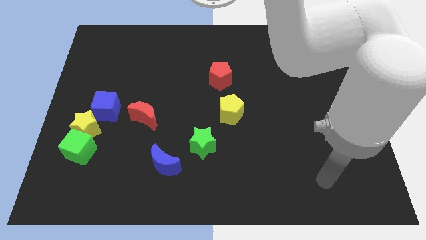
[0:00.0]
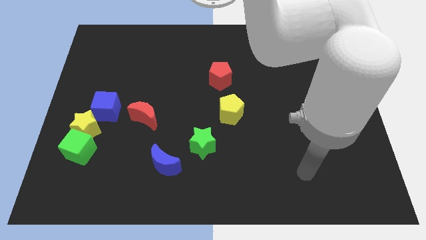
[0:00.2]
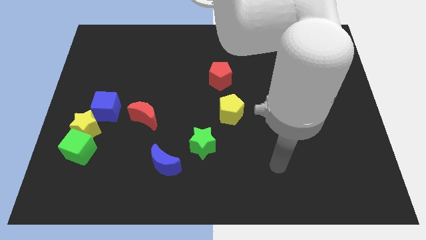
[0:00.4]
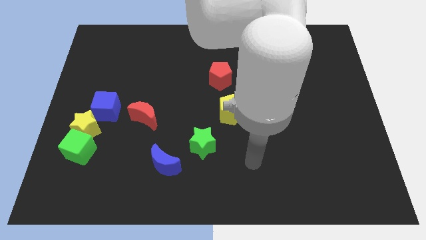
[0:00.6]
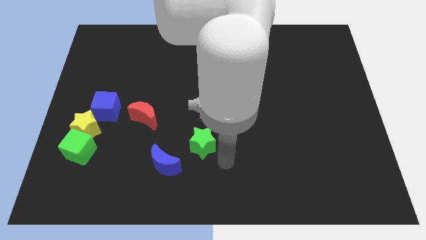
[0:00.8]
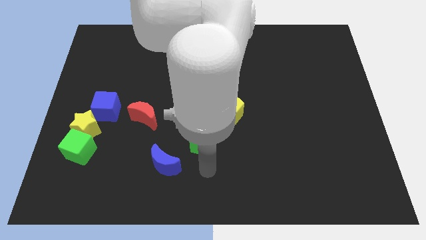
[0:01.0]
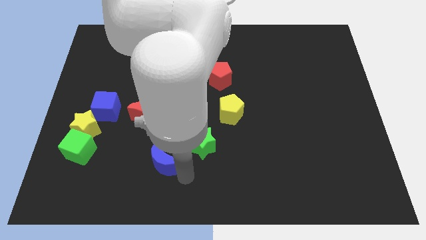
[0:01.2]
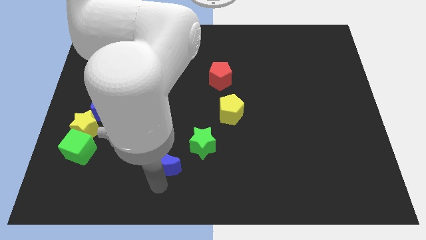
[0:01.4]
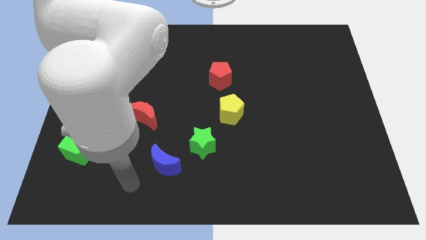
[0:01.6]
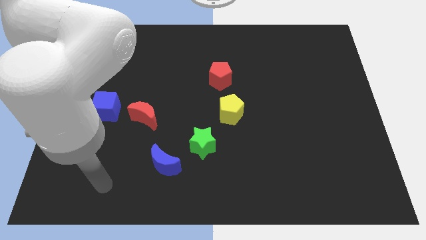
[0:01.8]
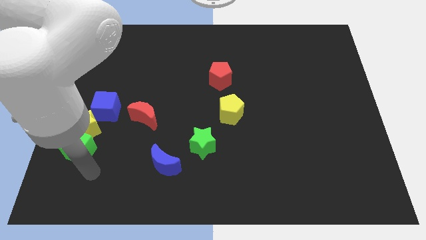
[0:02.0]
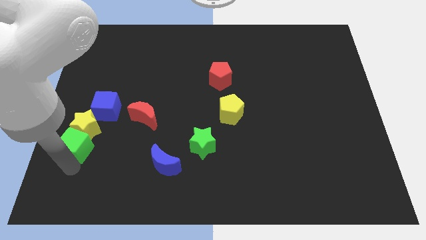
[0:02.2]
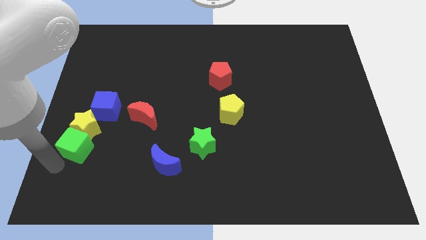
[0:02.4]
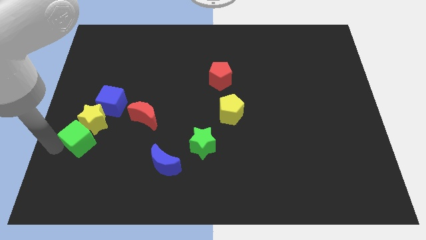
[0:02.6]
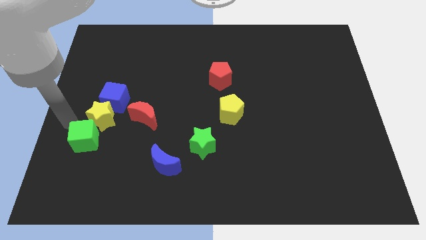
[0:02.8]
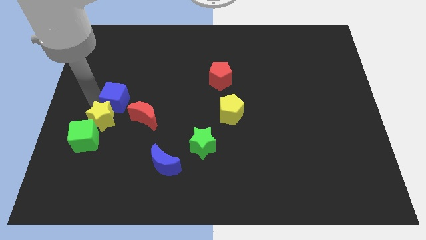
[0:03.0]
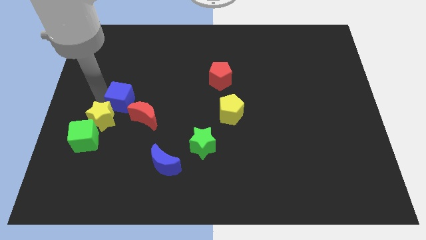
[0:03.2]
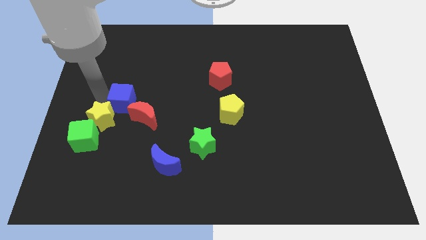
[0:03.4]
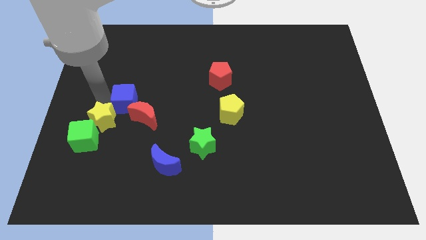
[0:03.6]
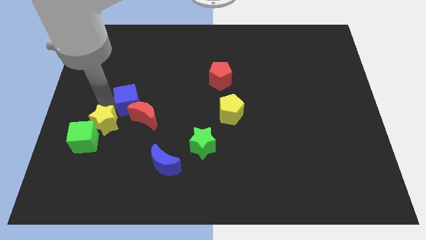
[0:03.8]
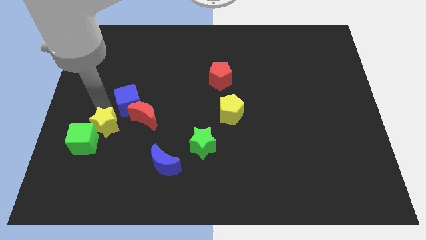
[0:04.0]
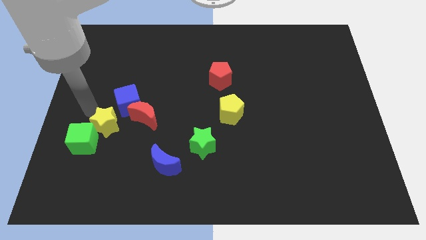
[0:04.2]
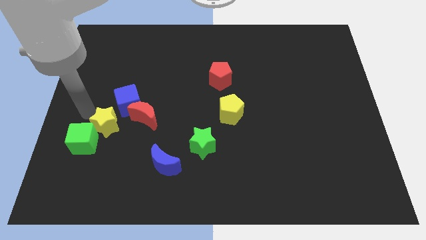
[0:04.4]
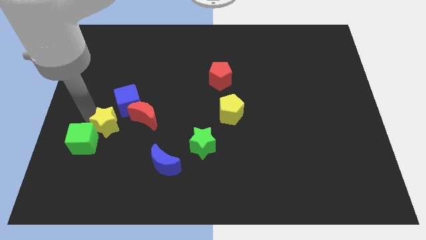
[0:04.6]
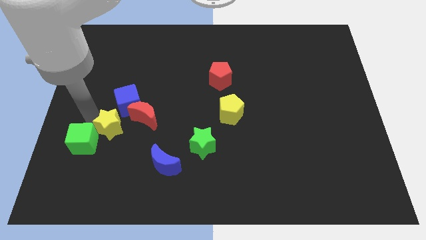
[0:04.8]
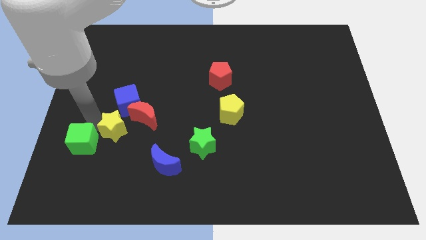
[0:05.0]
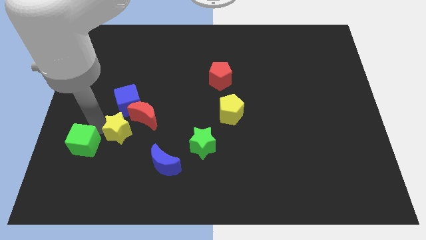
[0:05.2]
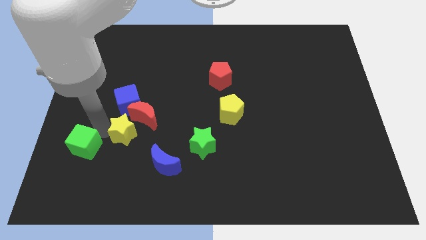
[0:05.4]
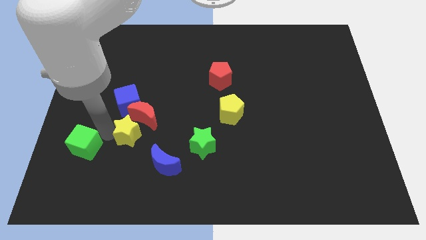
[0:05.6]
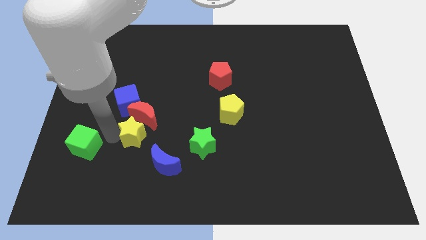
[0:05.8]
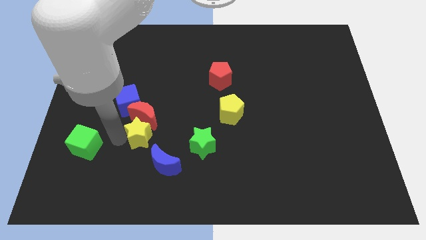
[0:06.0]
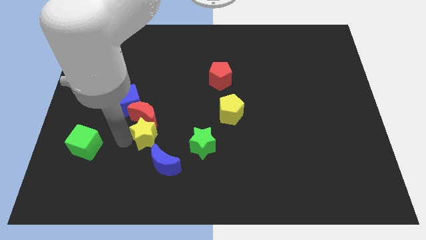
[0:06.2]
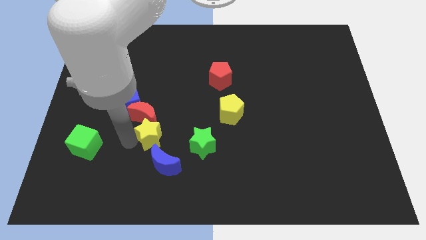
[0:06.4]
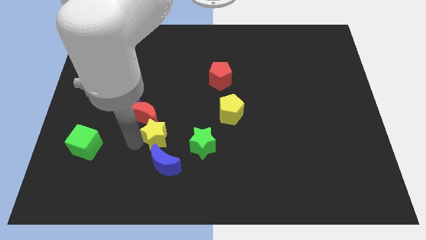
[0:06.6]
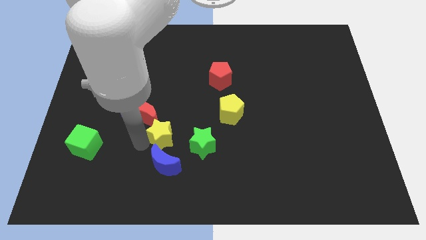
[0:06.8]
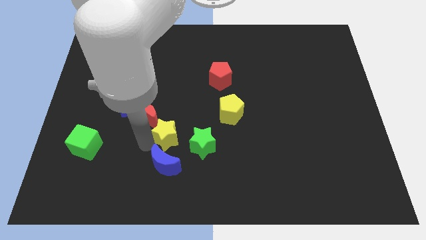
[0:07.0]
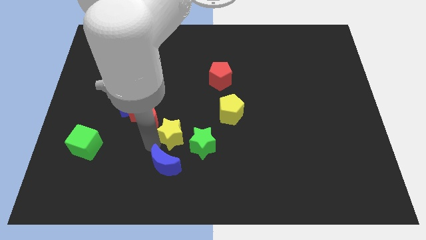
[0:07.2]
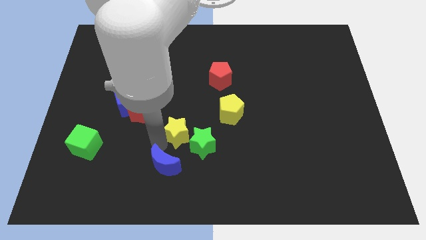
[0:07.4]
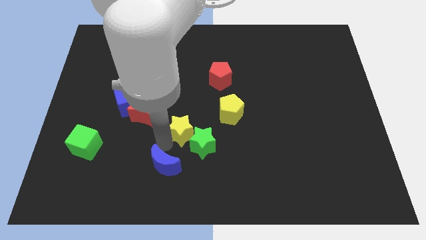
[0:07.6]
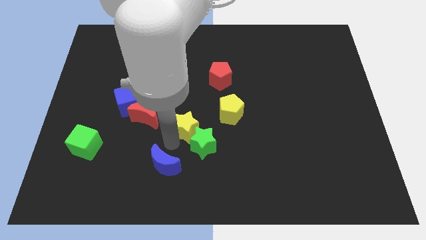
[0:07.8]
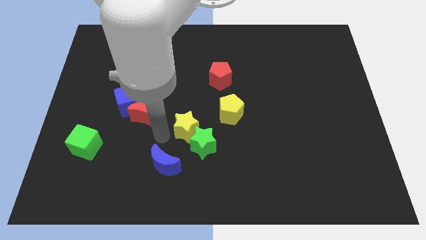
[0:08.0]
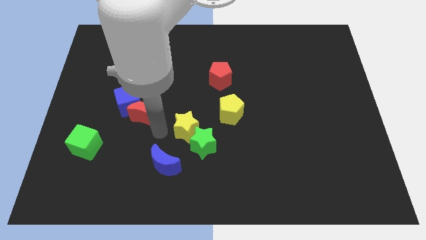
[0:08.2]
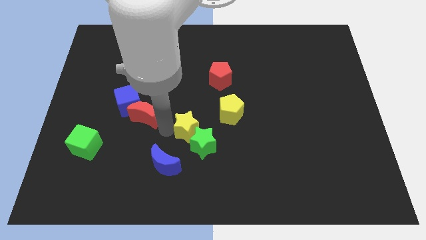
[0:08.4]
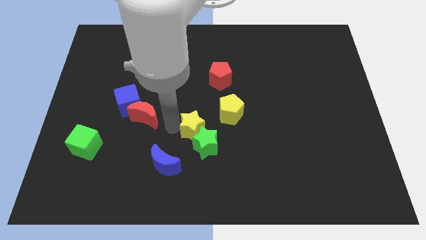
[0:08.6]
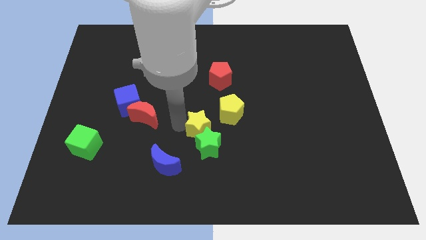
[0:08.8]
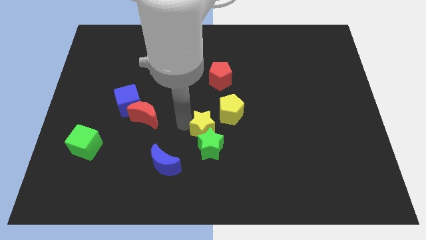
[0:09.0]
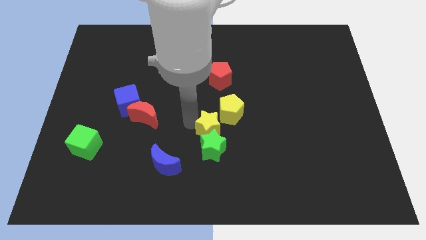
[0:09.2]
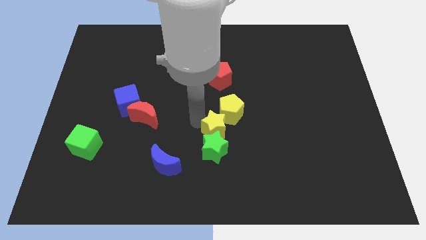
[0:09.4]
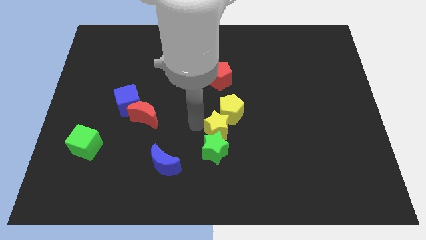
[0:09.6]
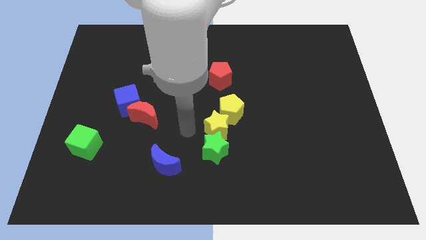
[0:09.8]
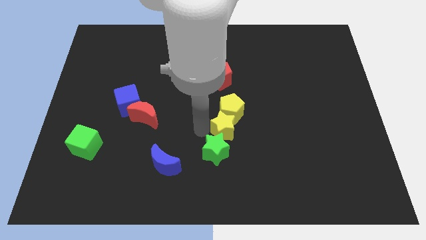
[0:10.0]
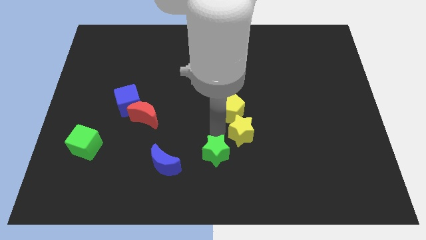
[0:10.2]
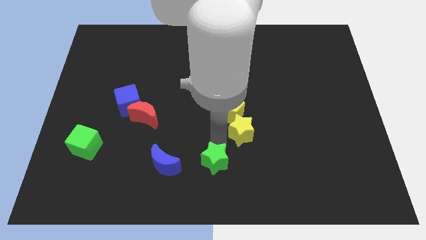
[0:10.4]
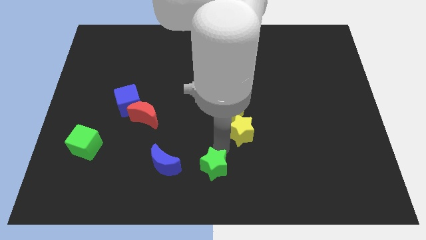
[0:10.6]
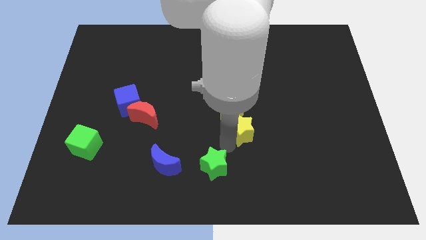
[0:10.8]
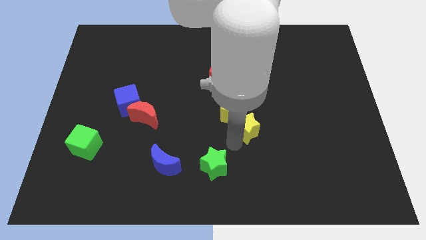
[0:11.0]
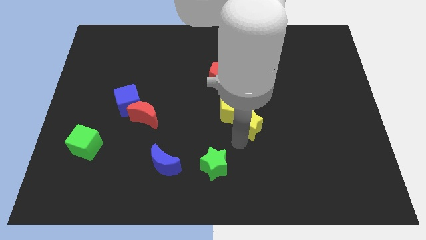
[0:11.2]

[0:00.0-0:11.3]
put the yellow star just right of the yellow pentagon

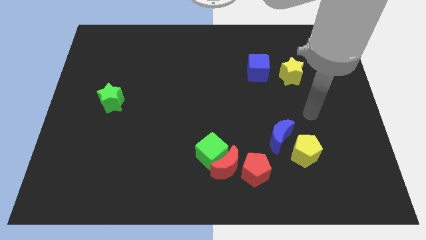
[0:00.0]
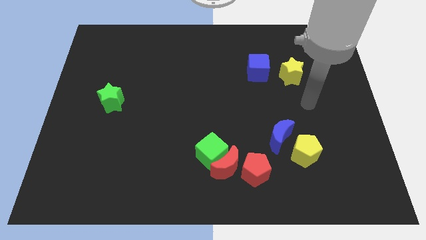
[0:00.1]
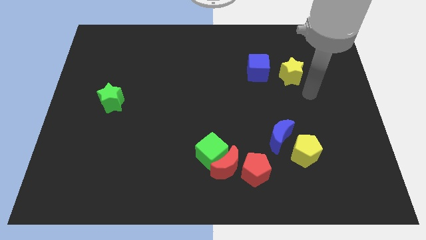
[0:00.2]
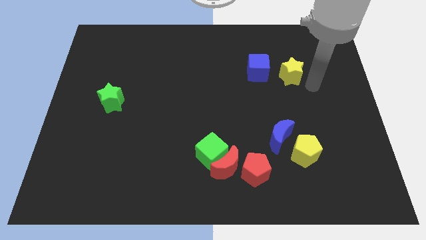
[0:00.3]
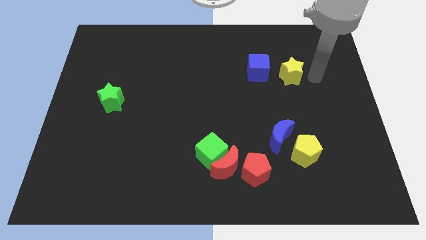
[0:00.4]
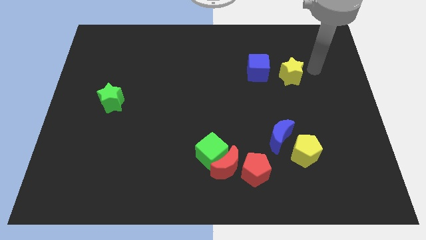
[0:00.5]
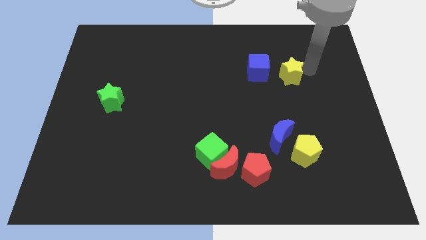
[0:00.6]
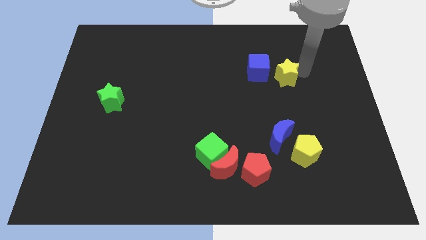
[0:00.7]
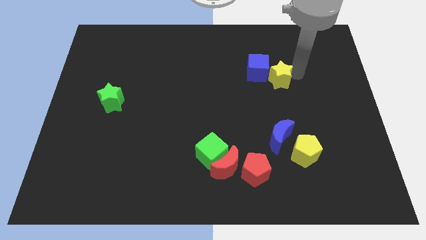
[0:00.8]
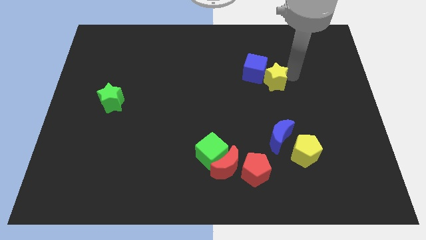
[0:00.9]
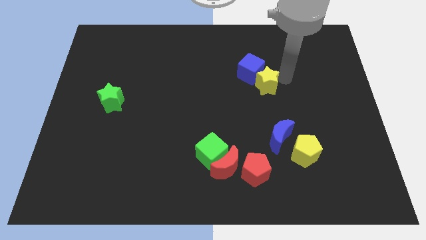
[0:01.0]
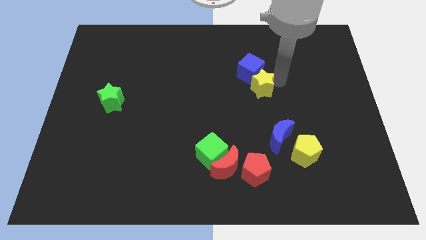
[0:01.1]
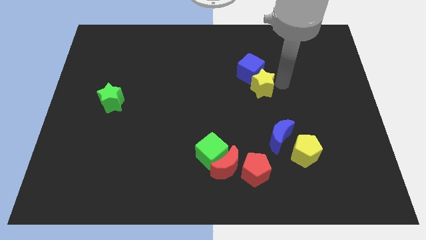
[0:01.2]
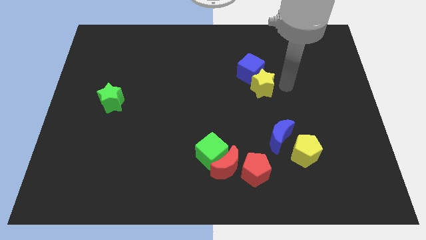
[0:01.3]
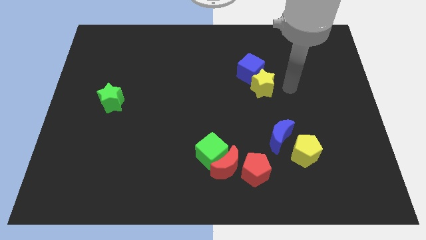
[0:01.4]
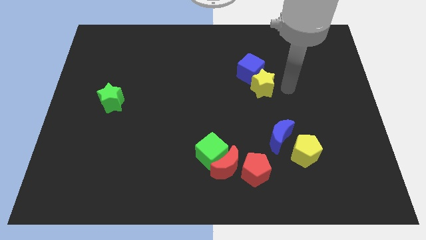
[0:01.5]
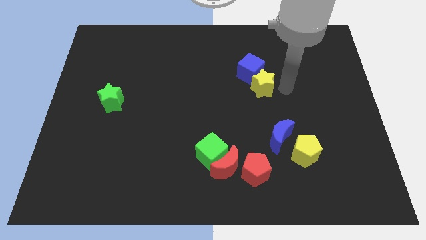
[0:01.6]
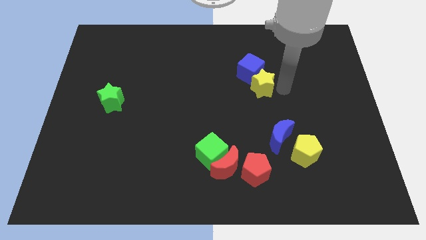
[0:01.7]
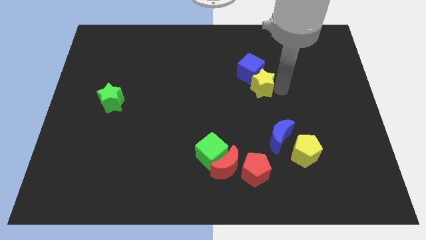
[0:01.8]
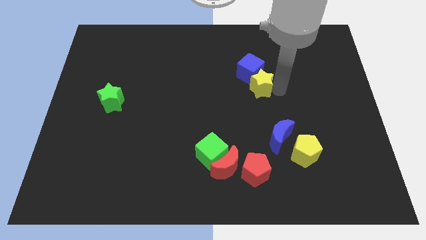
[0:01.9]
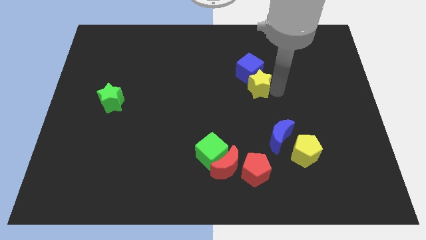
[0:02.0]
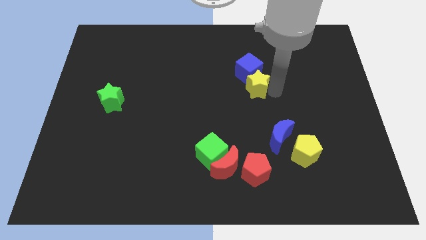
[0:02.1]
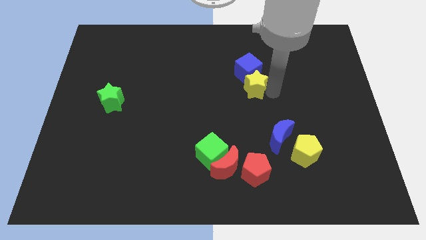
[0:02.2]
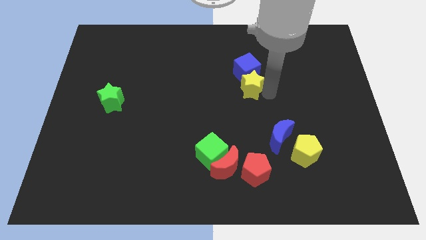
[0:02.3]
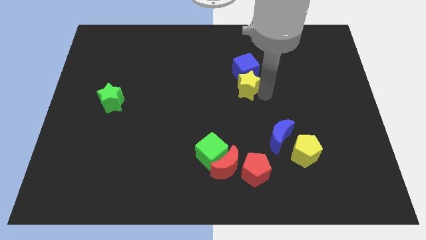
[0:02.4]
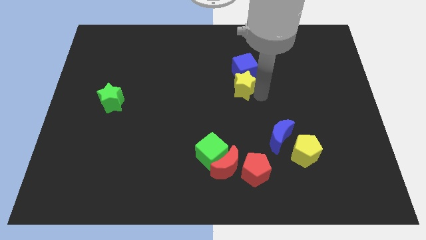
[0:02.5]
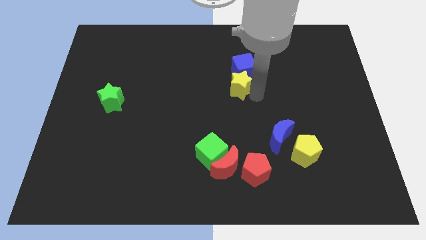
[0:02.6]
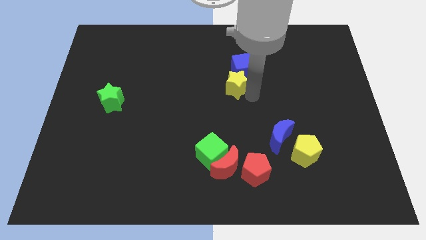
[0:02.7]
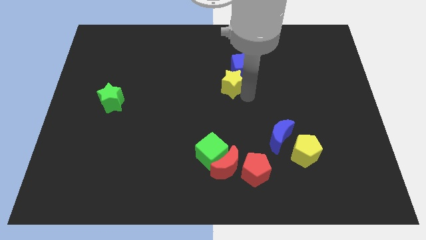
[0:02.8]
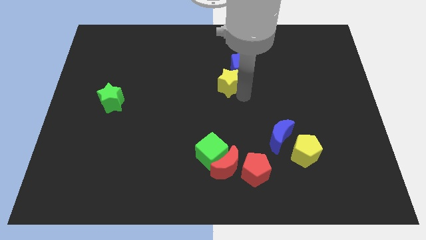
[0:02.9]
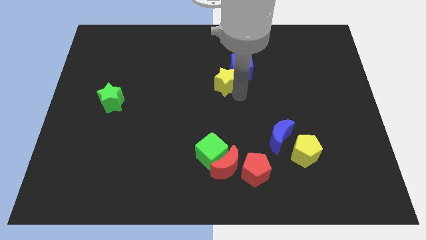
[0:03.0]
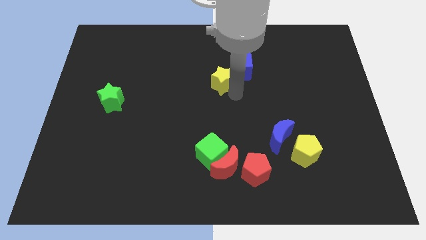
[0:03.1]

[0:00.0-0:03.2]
push the yellow star left of the blue cube
